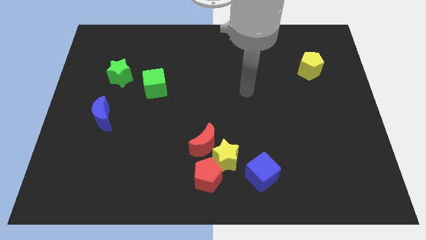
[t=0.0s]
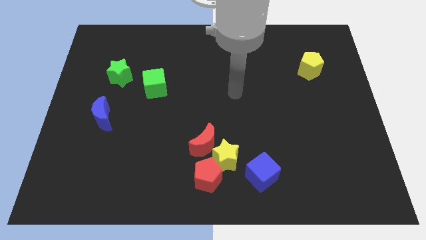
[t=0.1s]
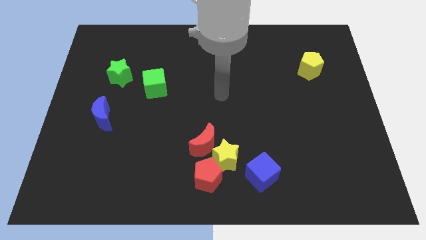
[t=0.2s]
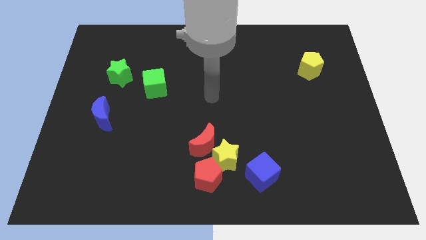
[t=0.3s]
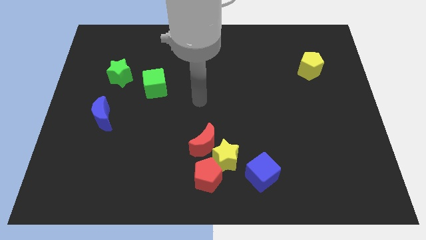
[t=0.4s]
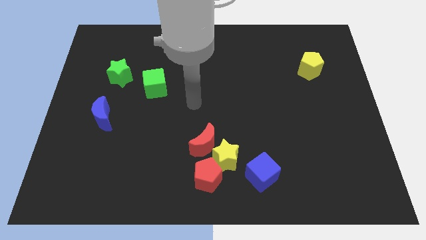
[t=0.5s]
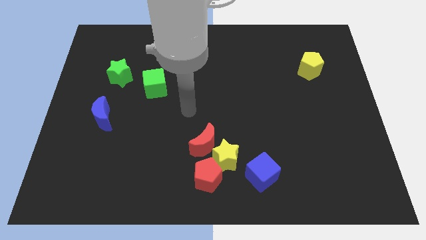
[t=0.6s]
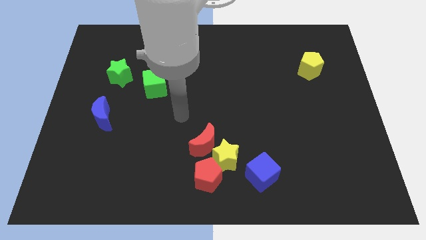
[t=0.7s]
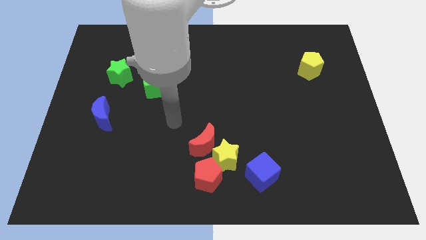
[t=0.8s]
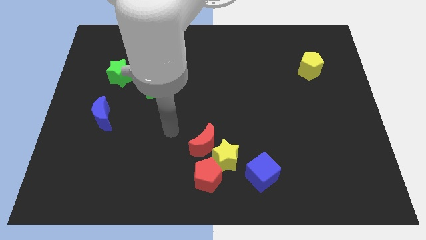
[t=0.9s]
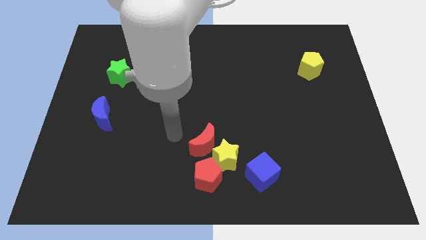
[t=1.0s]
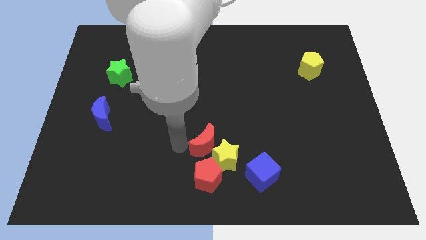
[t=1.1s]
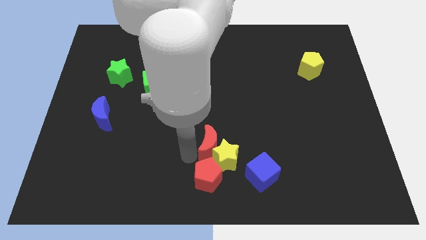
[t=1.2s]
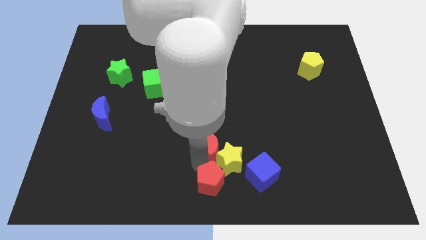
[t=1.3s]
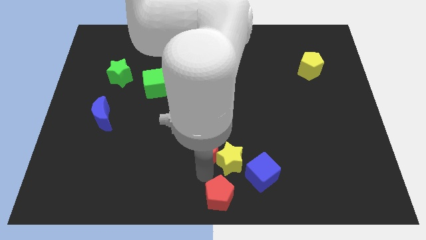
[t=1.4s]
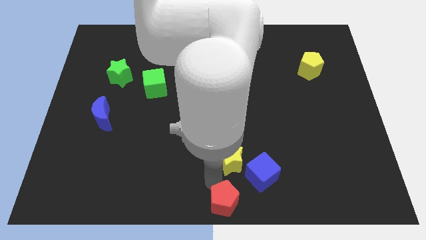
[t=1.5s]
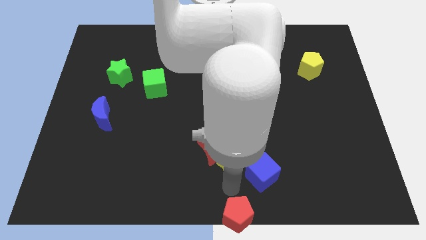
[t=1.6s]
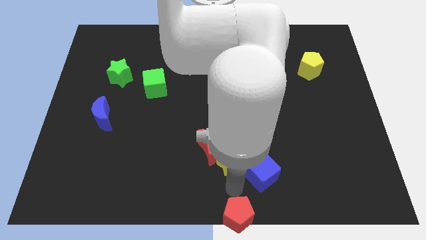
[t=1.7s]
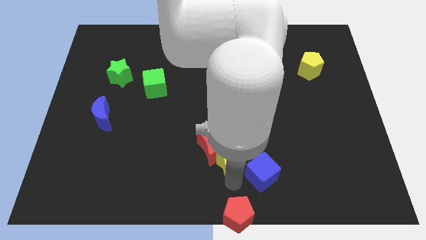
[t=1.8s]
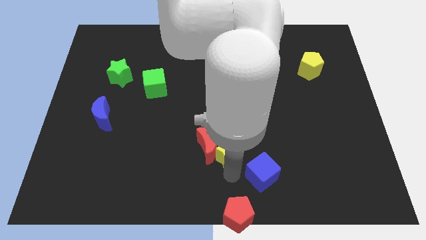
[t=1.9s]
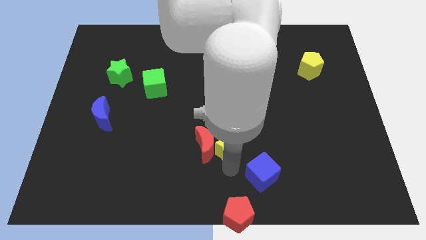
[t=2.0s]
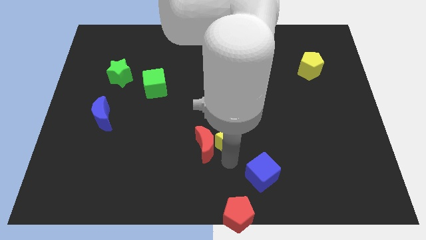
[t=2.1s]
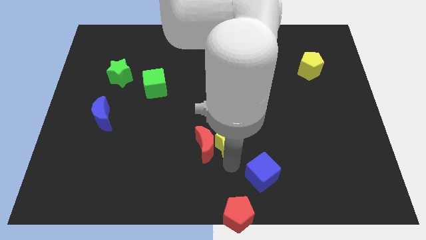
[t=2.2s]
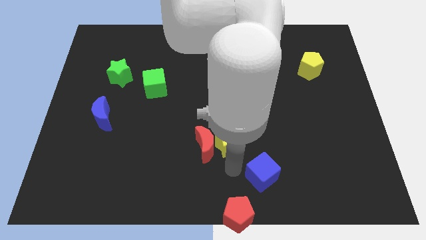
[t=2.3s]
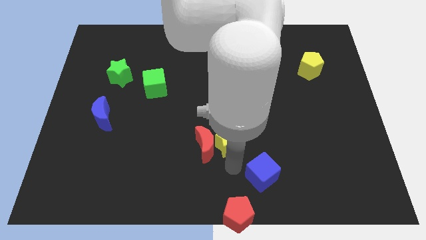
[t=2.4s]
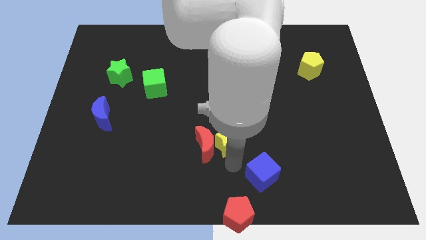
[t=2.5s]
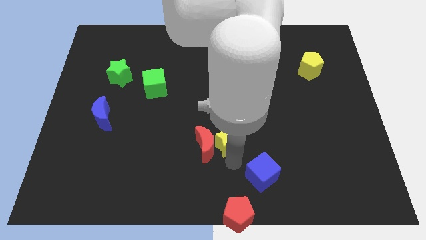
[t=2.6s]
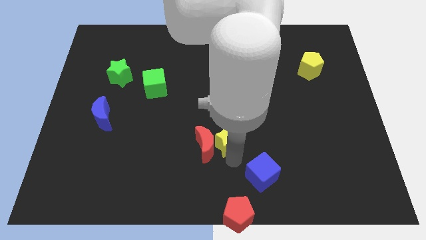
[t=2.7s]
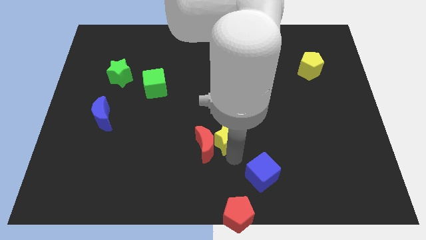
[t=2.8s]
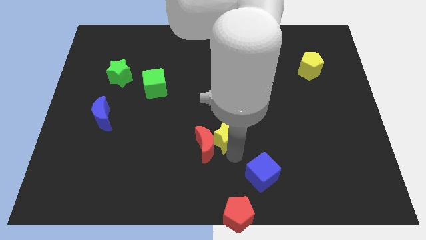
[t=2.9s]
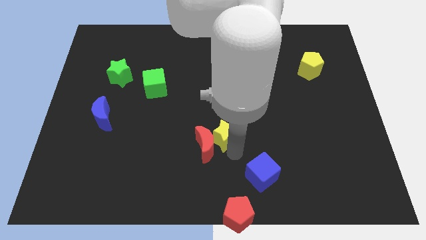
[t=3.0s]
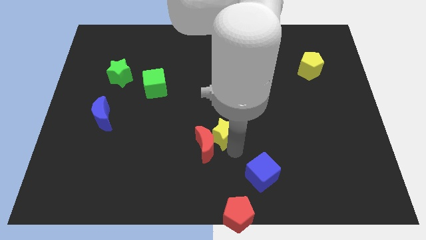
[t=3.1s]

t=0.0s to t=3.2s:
pull the yellow star apart from the clump

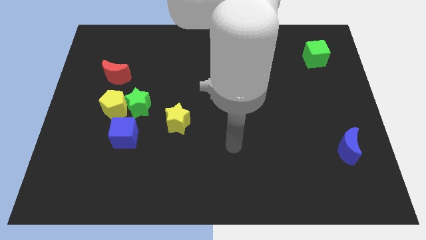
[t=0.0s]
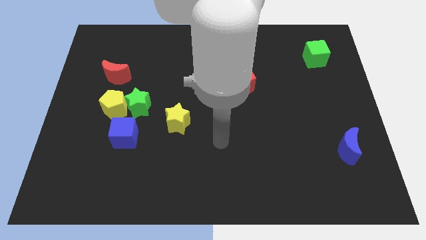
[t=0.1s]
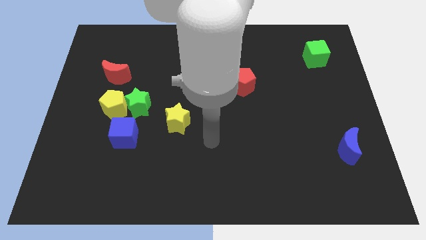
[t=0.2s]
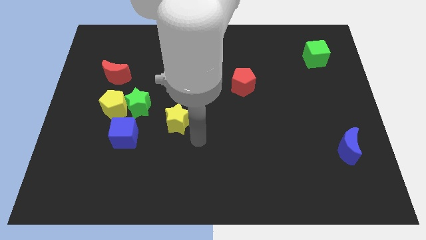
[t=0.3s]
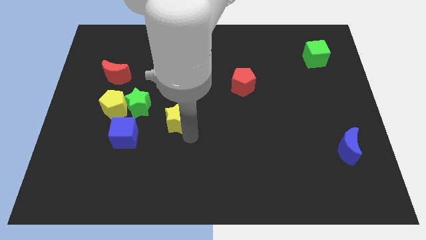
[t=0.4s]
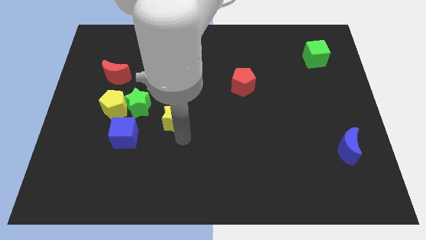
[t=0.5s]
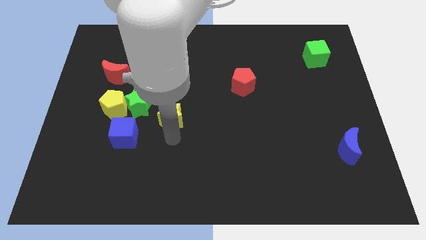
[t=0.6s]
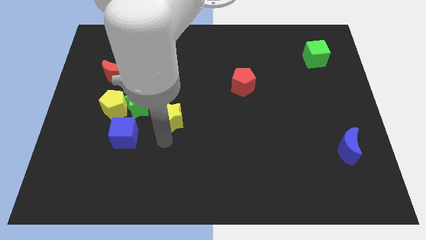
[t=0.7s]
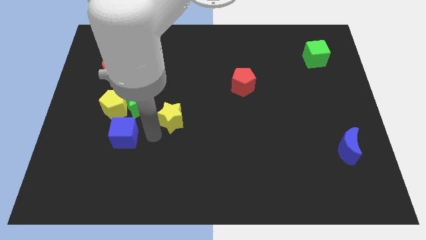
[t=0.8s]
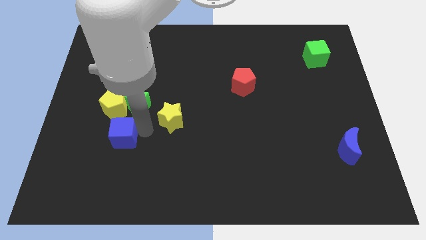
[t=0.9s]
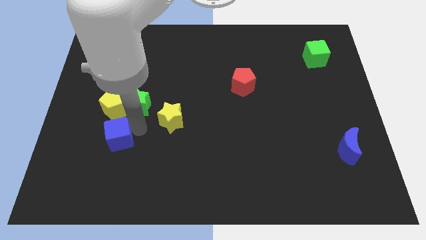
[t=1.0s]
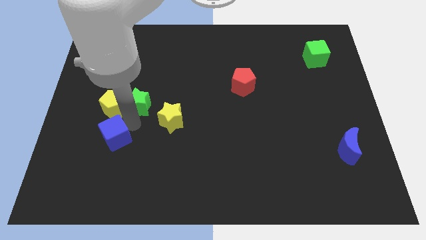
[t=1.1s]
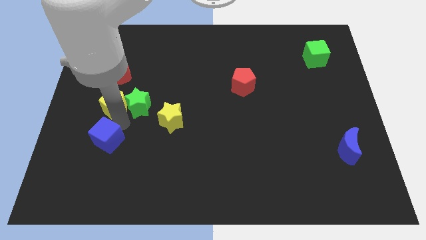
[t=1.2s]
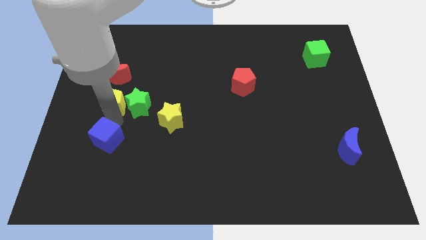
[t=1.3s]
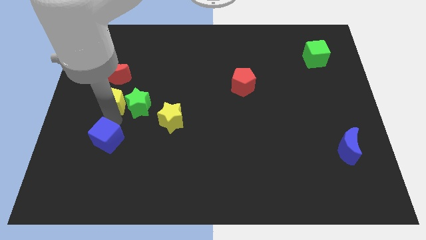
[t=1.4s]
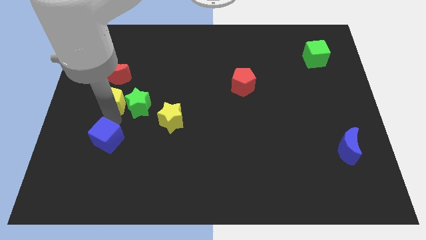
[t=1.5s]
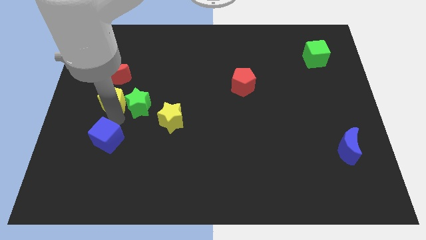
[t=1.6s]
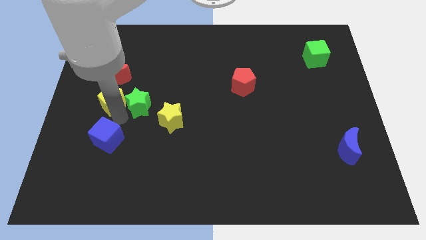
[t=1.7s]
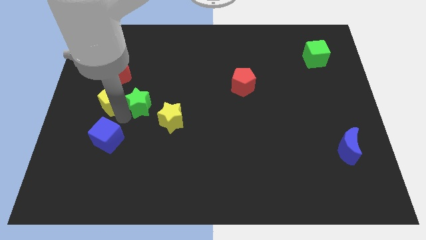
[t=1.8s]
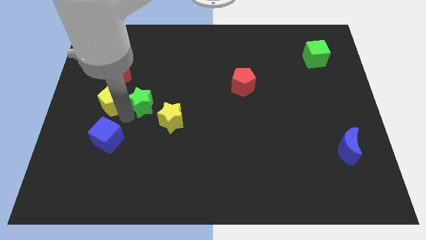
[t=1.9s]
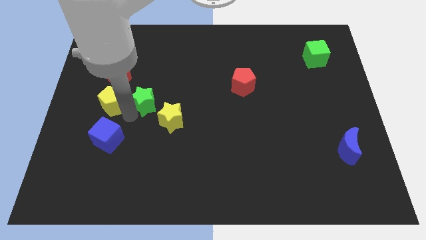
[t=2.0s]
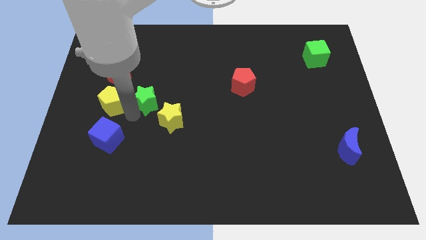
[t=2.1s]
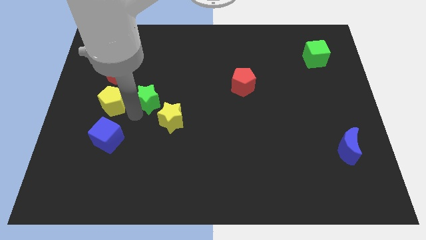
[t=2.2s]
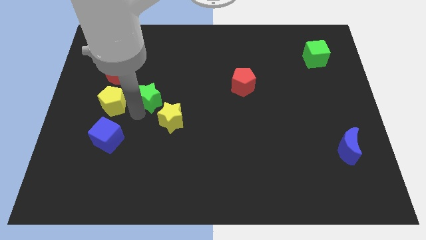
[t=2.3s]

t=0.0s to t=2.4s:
separate the green star from the yellow pentagon and blue cube

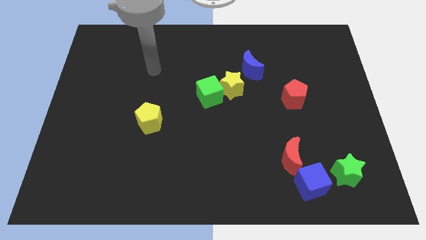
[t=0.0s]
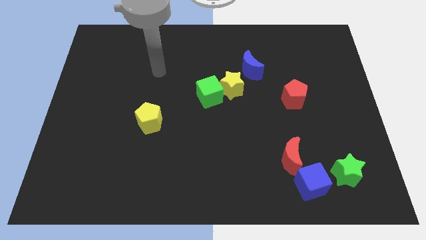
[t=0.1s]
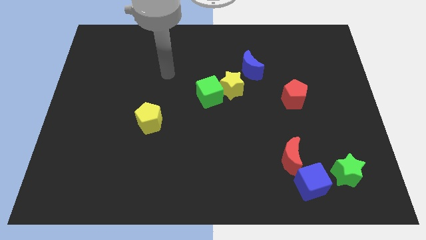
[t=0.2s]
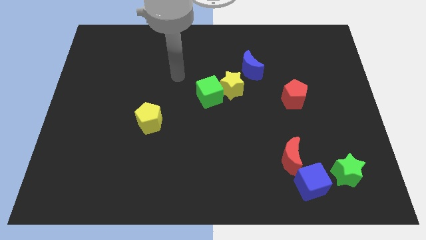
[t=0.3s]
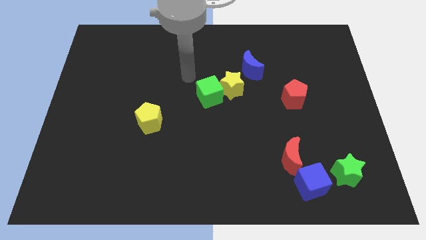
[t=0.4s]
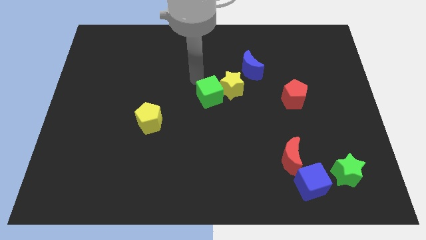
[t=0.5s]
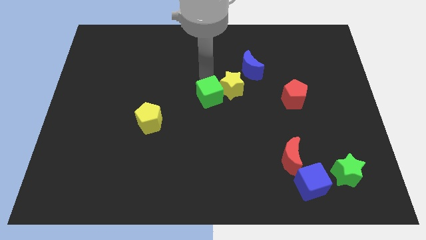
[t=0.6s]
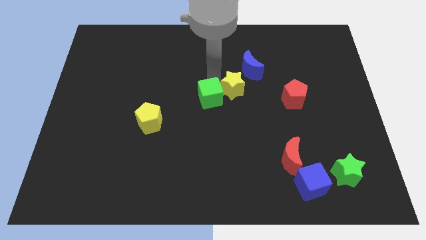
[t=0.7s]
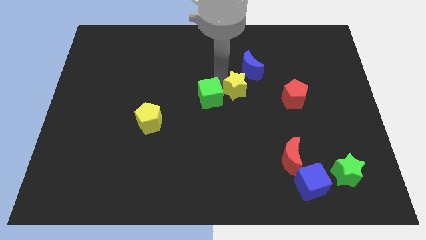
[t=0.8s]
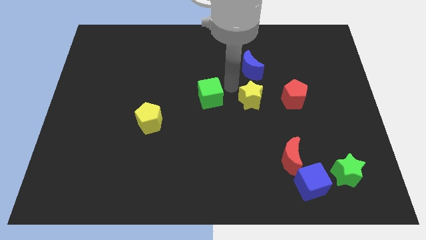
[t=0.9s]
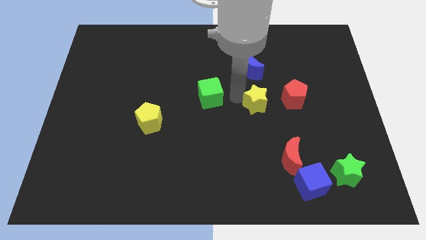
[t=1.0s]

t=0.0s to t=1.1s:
move the green cube away from the yellow star

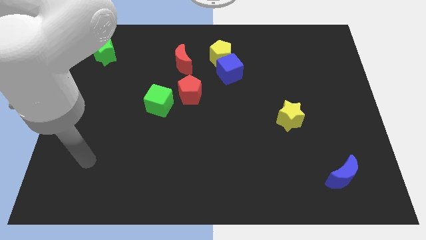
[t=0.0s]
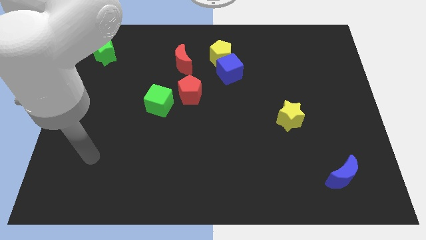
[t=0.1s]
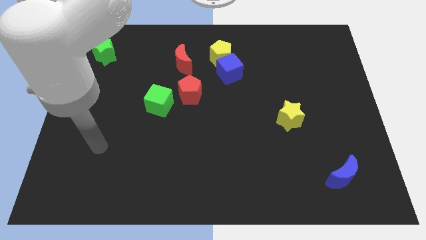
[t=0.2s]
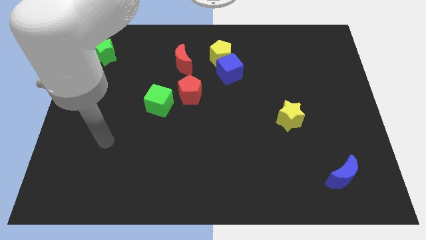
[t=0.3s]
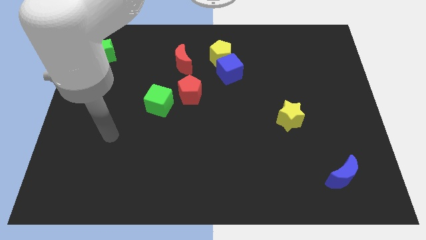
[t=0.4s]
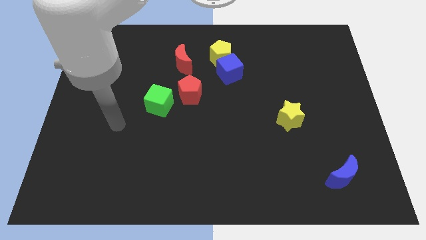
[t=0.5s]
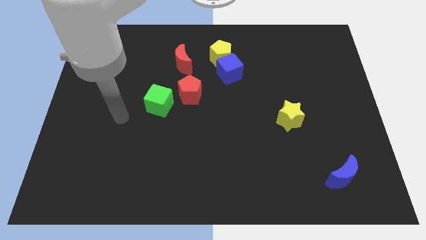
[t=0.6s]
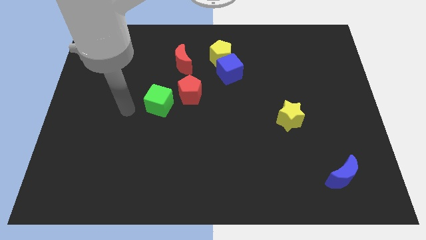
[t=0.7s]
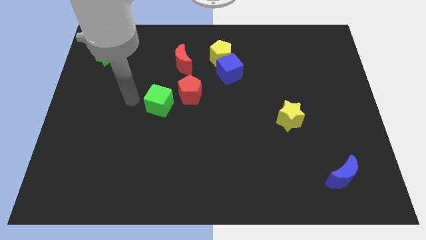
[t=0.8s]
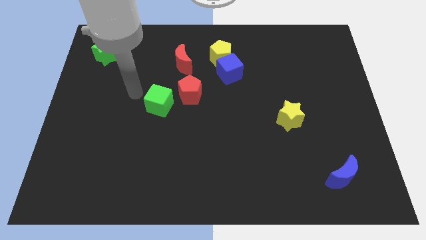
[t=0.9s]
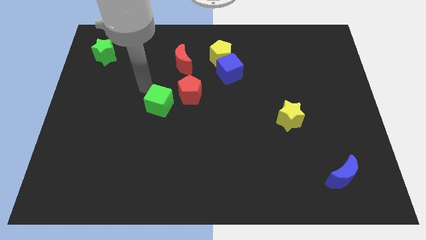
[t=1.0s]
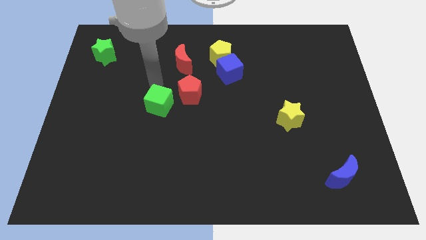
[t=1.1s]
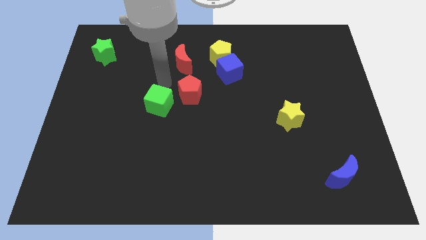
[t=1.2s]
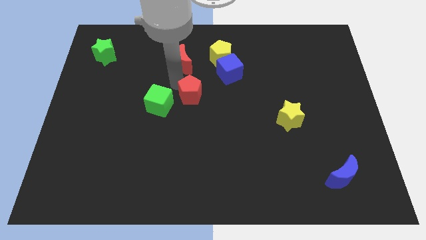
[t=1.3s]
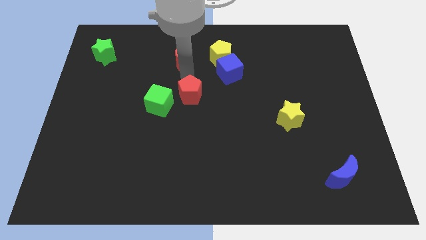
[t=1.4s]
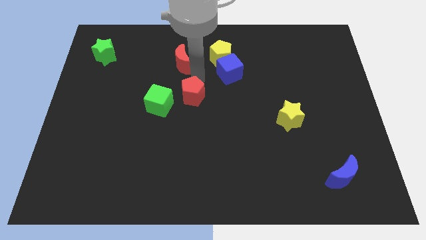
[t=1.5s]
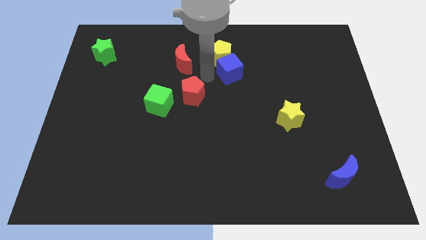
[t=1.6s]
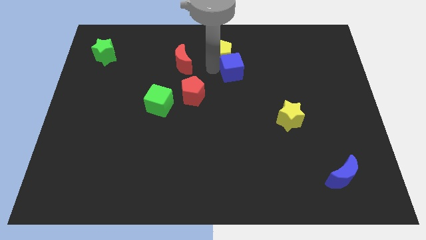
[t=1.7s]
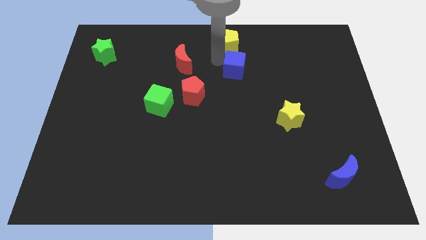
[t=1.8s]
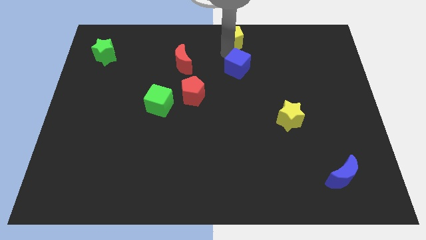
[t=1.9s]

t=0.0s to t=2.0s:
pull the blue cube apart from the yellow pentagon

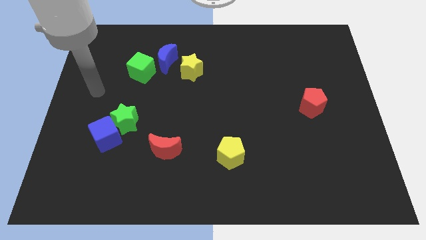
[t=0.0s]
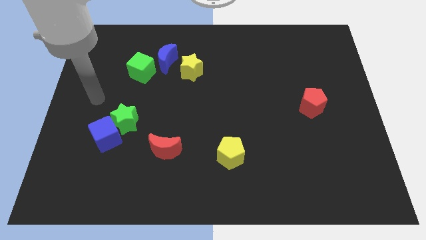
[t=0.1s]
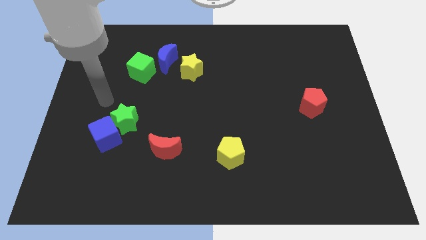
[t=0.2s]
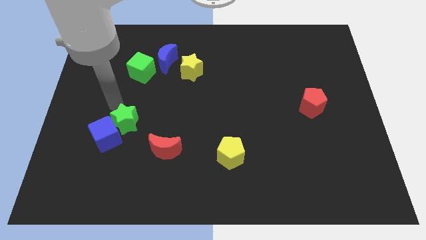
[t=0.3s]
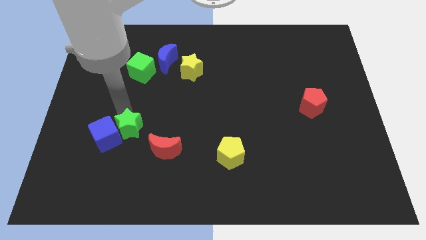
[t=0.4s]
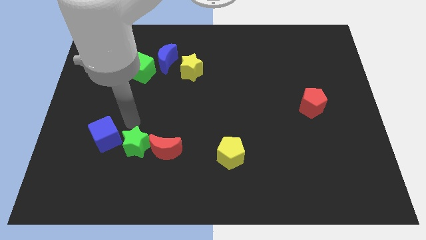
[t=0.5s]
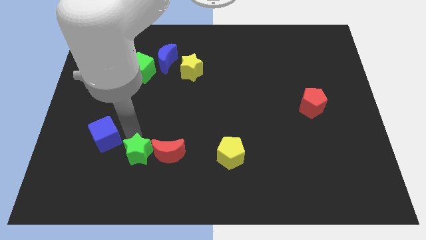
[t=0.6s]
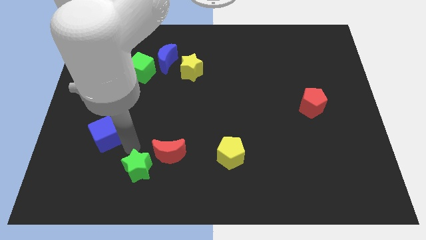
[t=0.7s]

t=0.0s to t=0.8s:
pull the blue cube apart from the green star

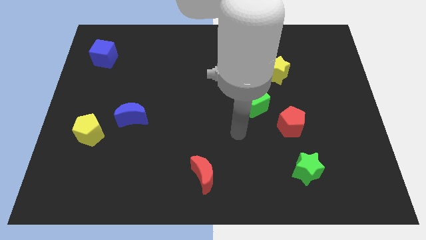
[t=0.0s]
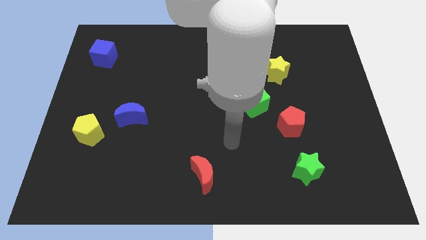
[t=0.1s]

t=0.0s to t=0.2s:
move the blue moon away from the yellow pentagon
